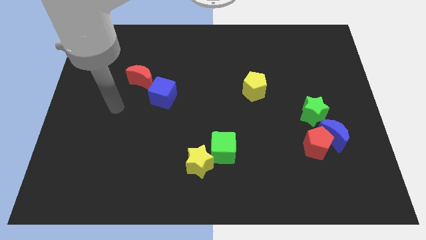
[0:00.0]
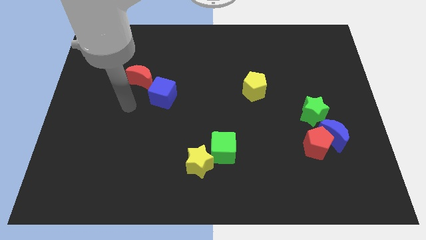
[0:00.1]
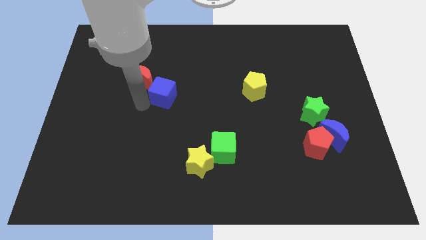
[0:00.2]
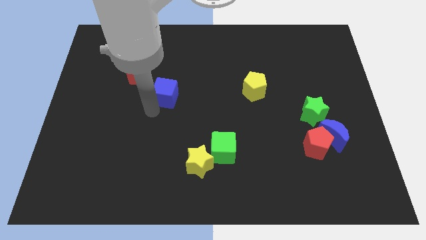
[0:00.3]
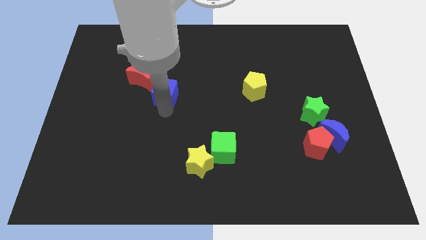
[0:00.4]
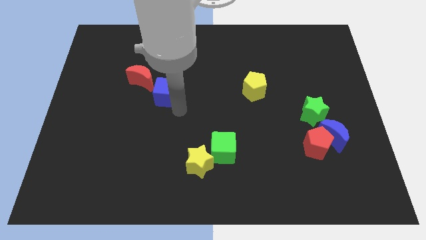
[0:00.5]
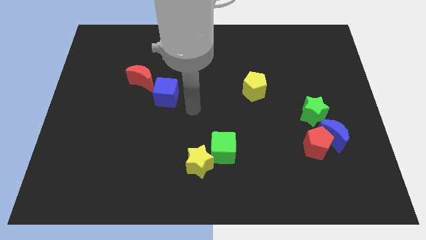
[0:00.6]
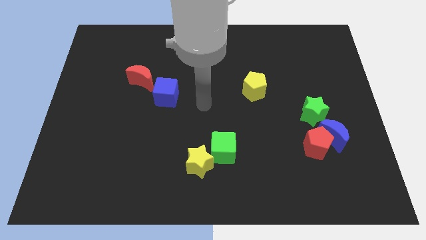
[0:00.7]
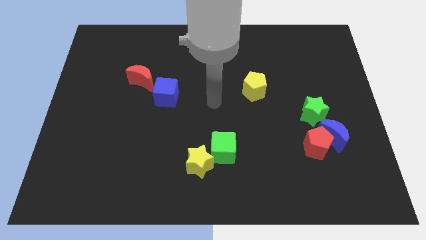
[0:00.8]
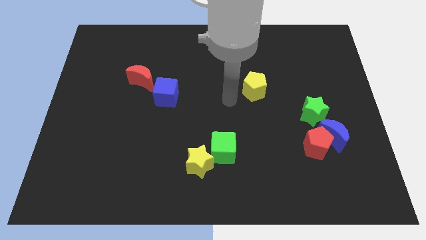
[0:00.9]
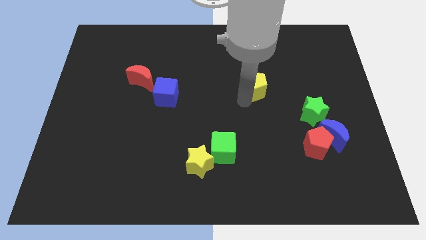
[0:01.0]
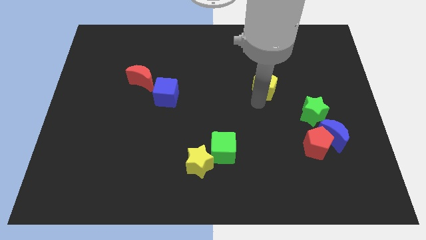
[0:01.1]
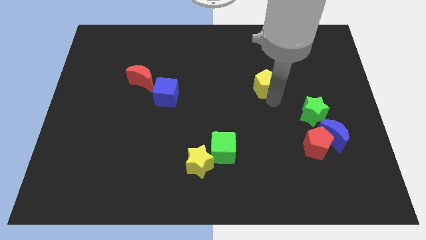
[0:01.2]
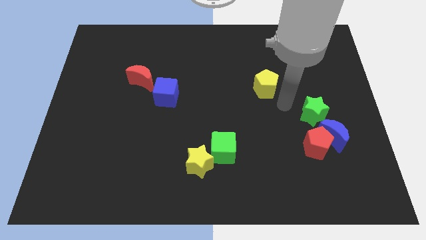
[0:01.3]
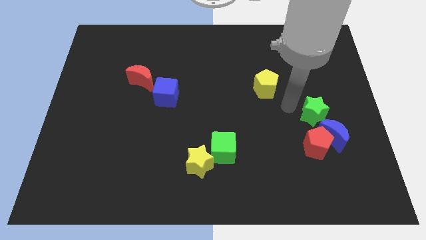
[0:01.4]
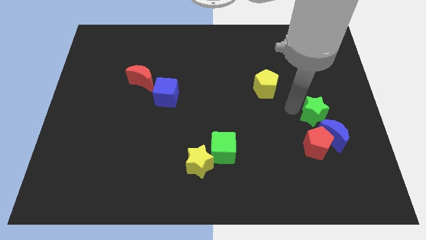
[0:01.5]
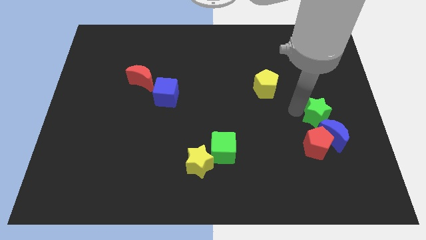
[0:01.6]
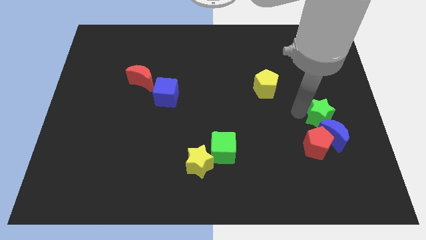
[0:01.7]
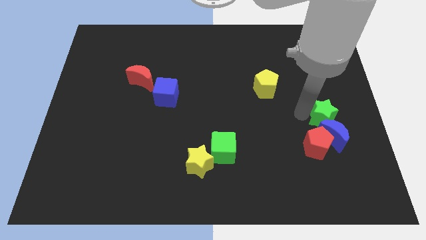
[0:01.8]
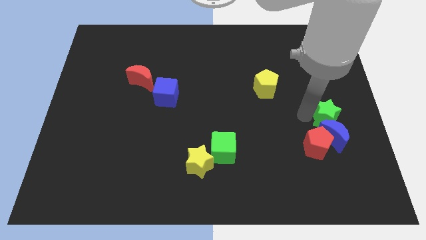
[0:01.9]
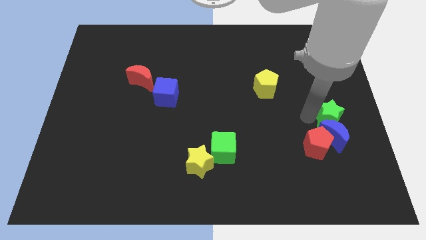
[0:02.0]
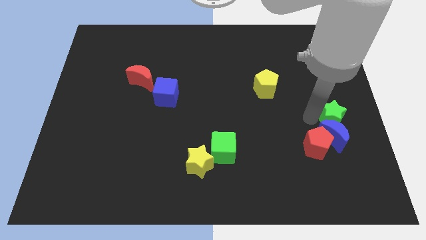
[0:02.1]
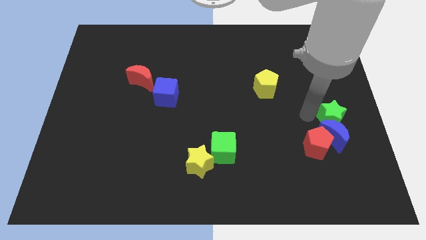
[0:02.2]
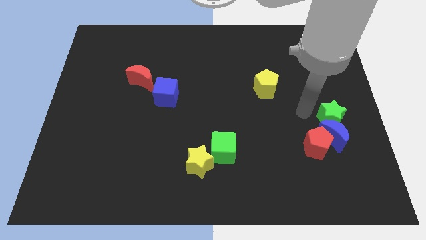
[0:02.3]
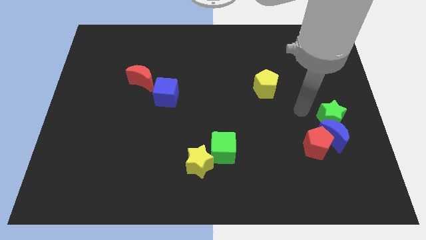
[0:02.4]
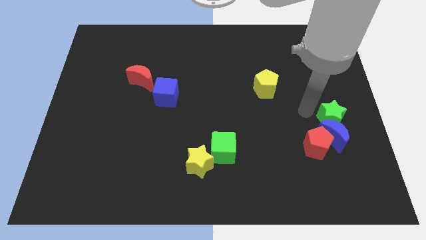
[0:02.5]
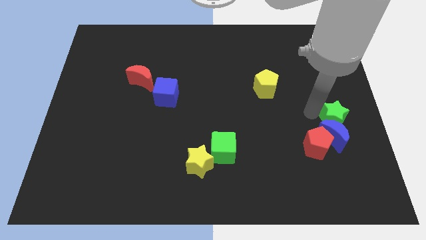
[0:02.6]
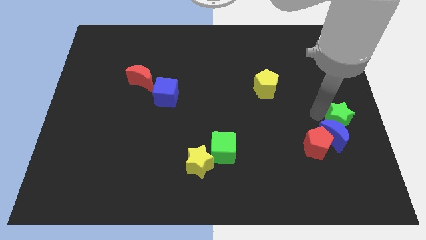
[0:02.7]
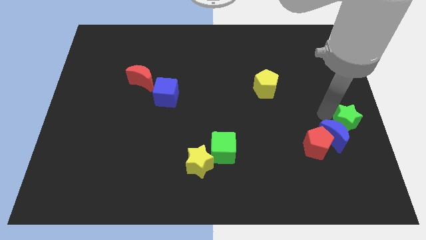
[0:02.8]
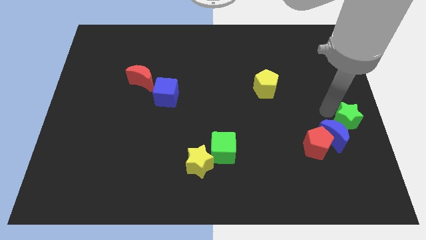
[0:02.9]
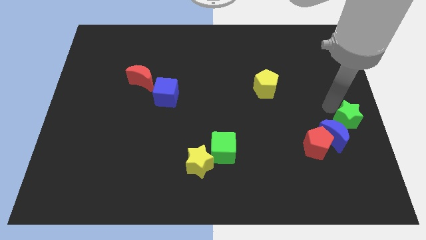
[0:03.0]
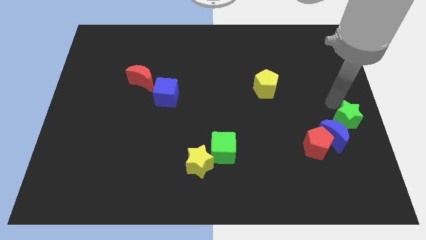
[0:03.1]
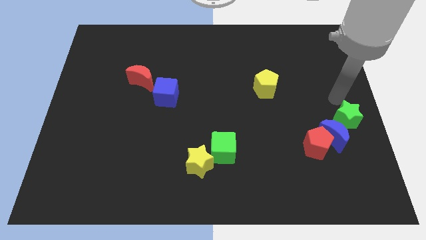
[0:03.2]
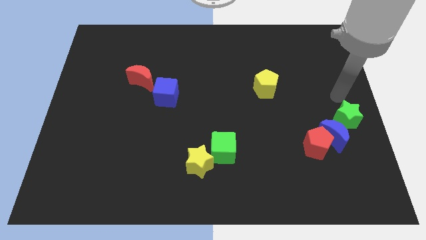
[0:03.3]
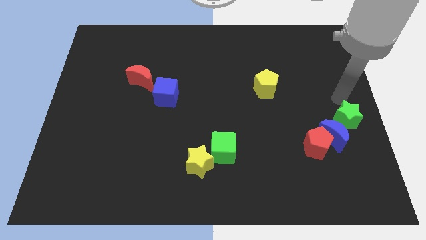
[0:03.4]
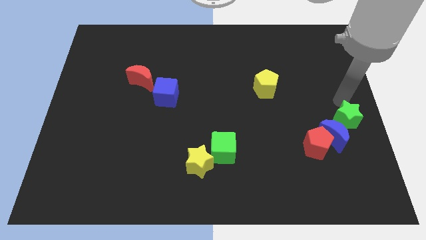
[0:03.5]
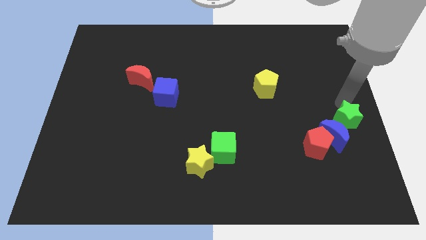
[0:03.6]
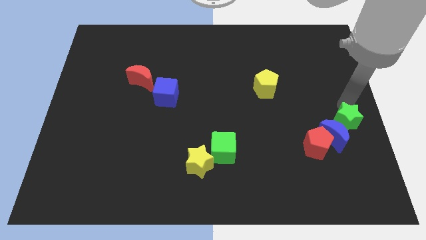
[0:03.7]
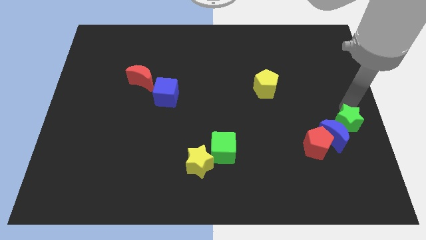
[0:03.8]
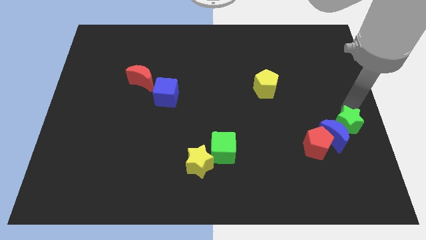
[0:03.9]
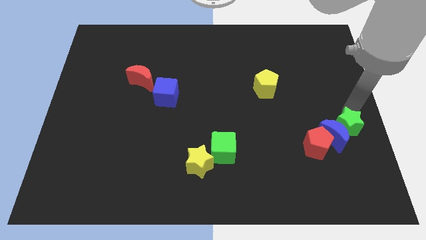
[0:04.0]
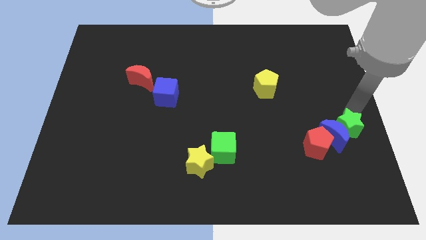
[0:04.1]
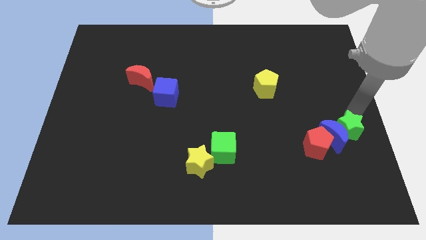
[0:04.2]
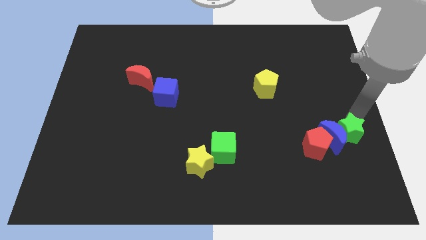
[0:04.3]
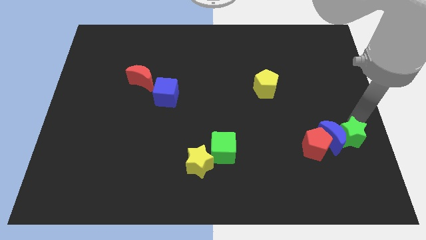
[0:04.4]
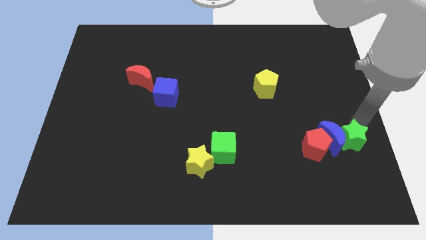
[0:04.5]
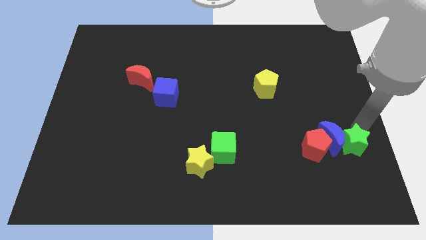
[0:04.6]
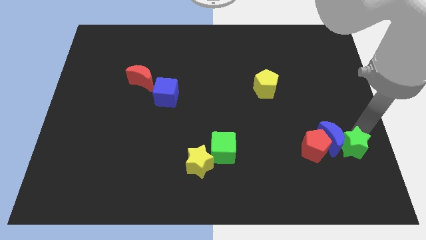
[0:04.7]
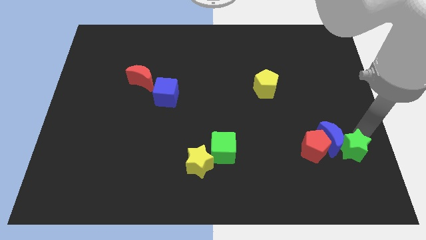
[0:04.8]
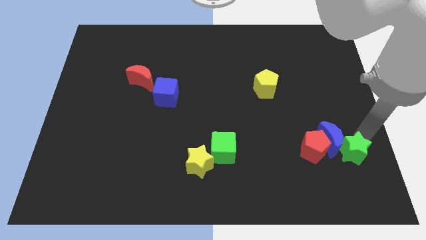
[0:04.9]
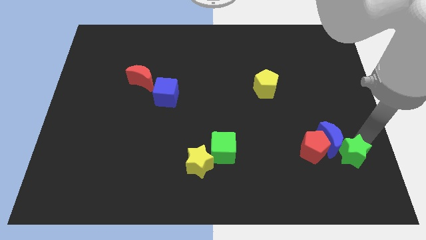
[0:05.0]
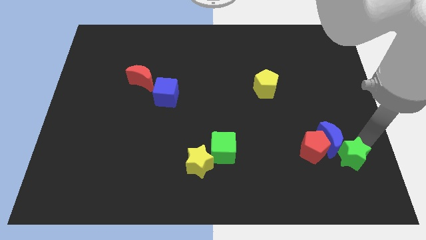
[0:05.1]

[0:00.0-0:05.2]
push the green star diagonally down and to the right of the red pentagon

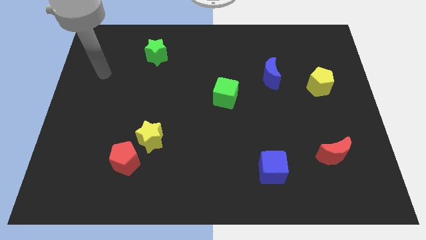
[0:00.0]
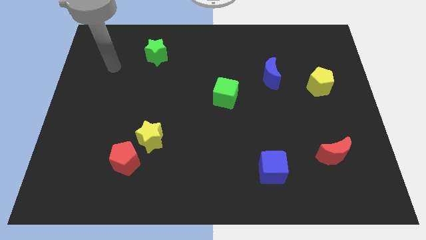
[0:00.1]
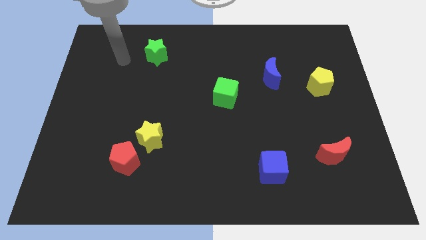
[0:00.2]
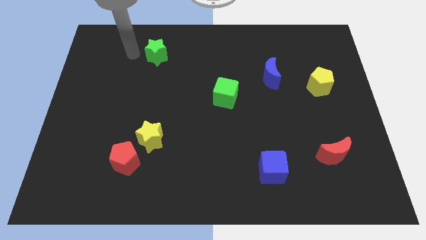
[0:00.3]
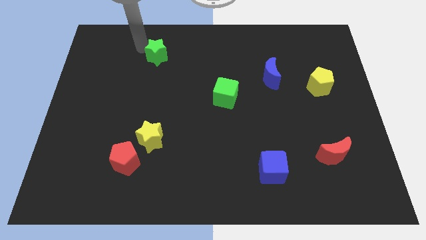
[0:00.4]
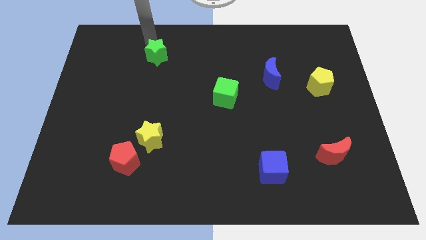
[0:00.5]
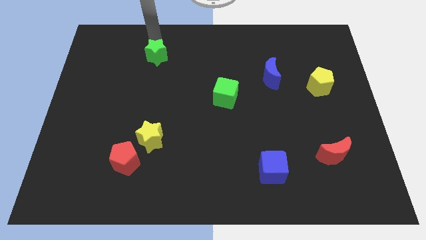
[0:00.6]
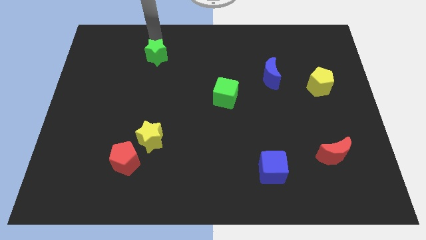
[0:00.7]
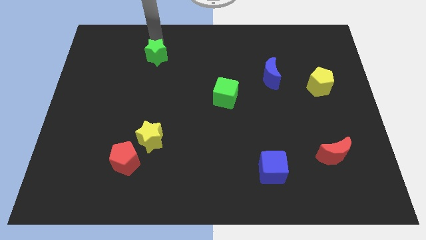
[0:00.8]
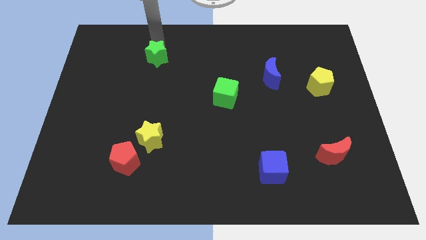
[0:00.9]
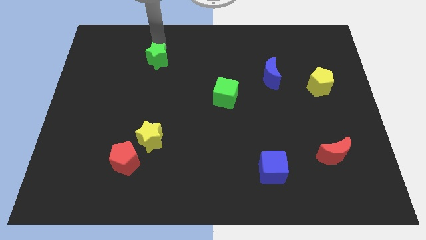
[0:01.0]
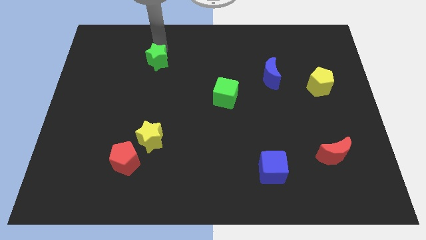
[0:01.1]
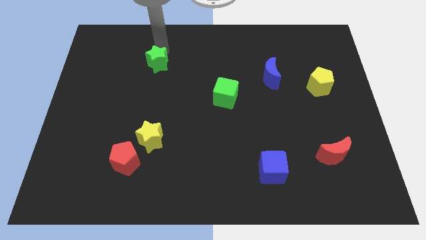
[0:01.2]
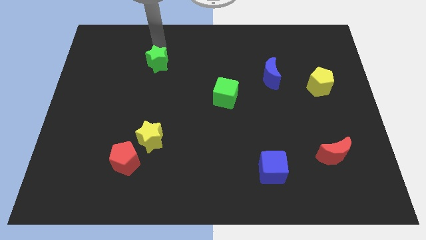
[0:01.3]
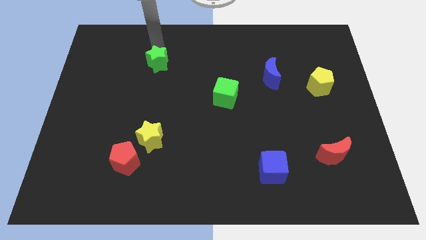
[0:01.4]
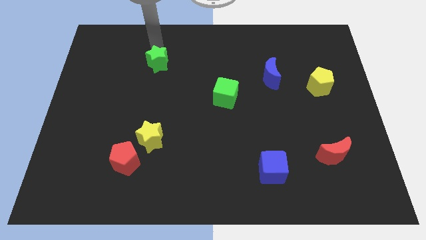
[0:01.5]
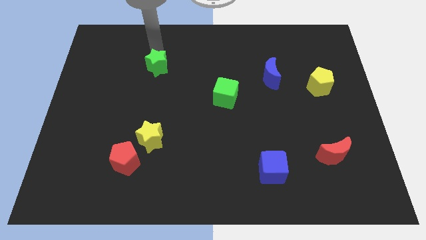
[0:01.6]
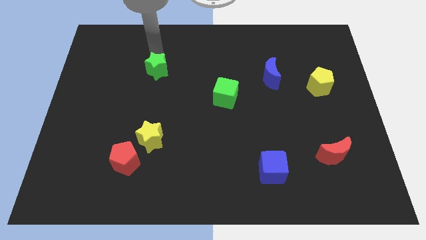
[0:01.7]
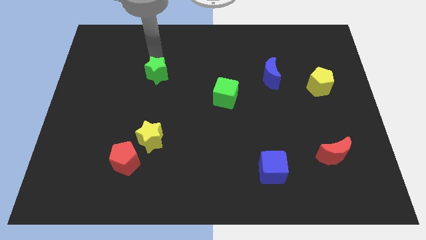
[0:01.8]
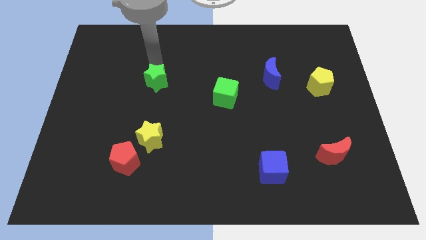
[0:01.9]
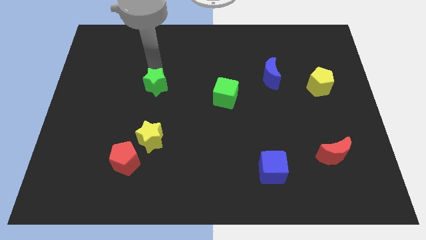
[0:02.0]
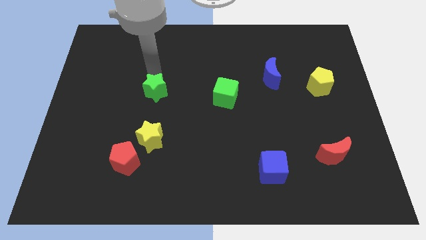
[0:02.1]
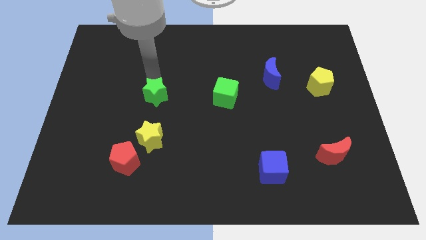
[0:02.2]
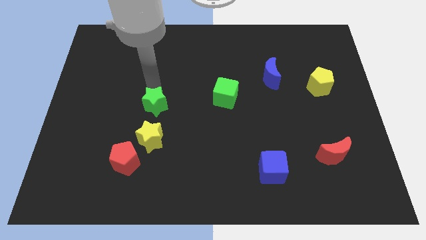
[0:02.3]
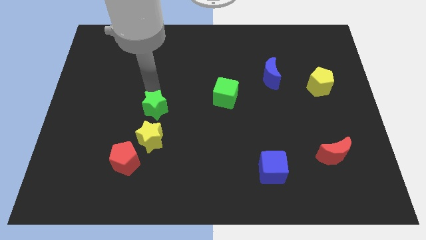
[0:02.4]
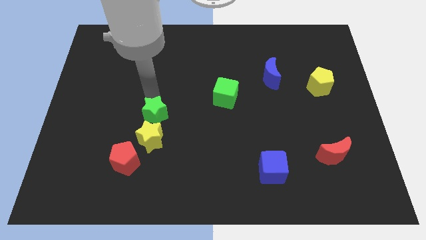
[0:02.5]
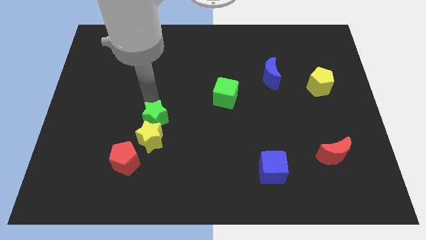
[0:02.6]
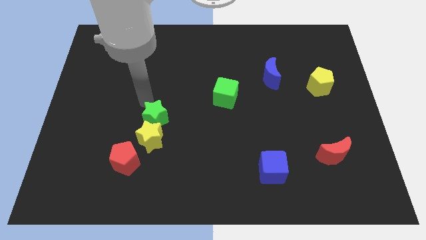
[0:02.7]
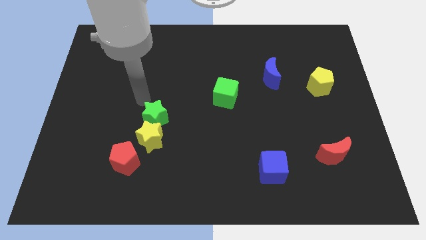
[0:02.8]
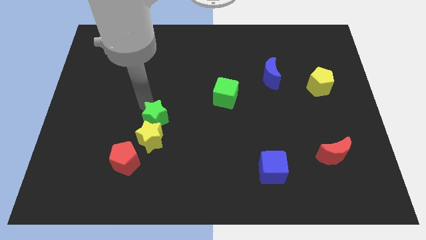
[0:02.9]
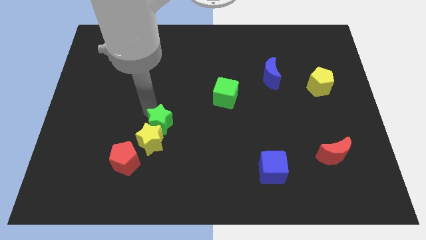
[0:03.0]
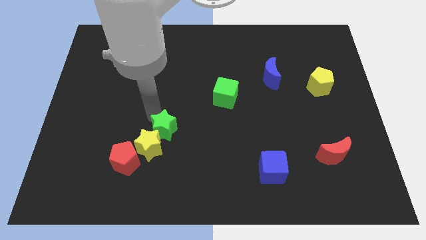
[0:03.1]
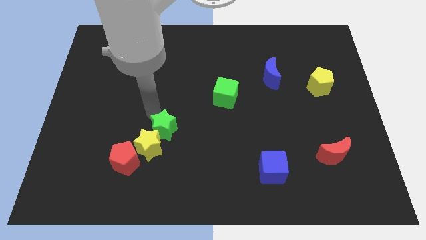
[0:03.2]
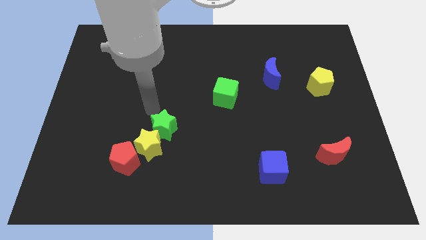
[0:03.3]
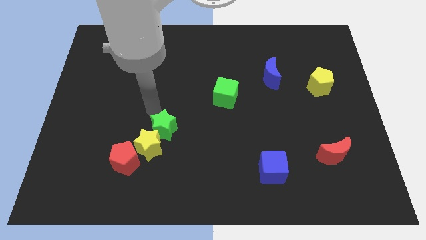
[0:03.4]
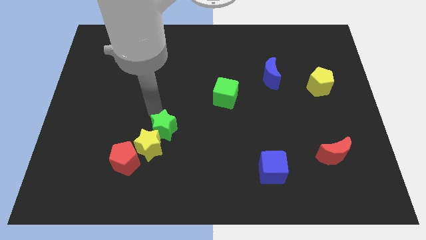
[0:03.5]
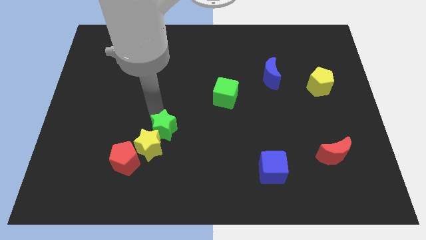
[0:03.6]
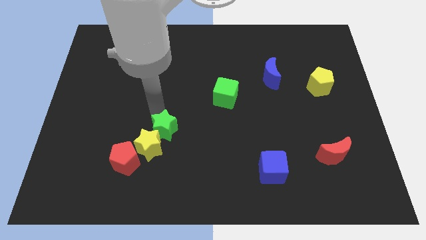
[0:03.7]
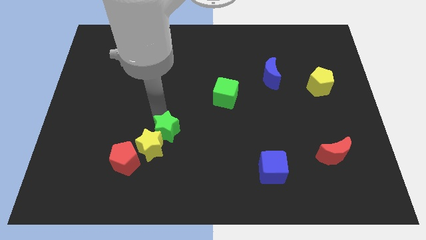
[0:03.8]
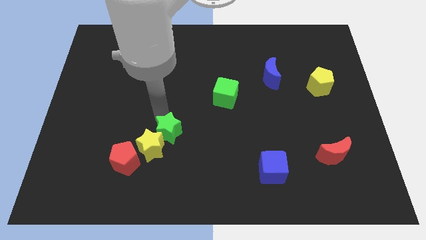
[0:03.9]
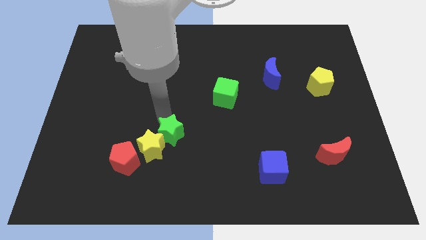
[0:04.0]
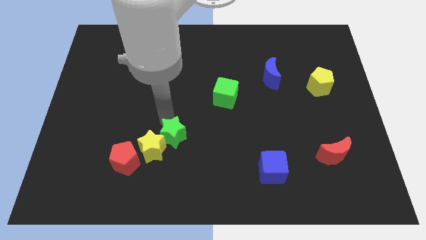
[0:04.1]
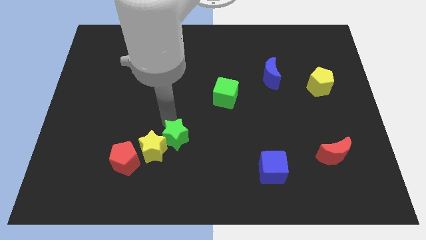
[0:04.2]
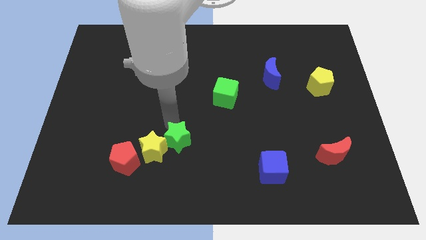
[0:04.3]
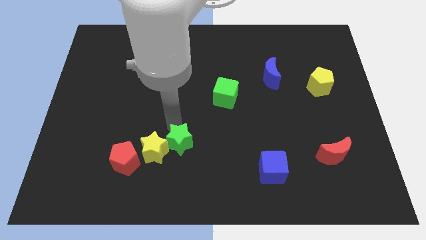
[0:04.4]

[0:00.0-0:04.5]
slide the green star right of the red pentagon
